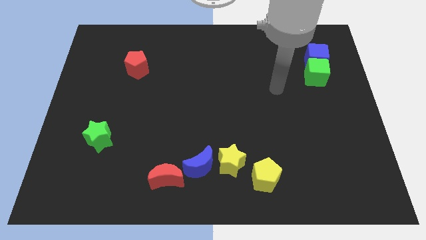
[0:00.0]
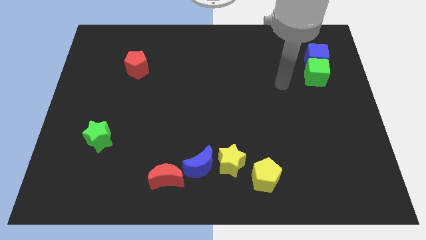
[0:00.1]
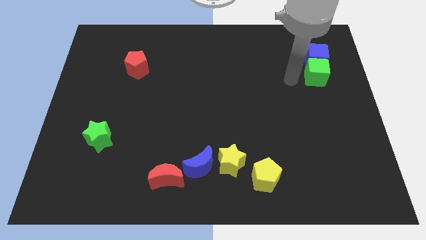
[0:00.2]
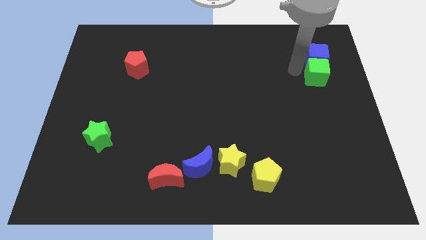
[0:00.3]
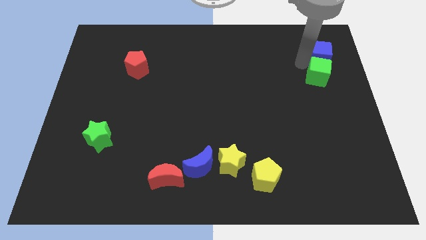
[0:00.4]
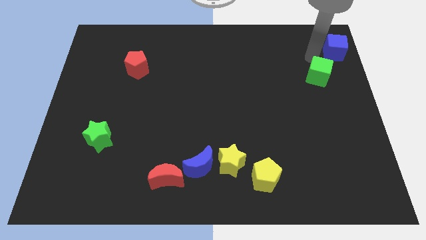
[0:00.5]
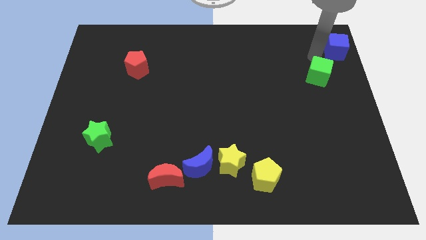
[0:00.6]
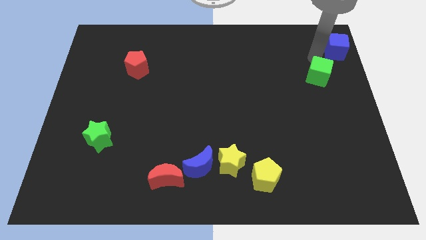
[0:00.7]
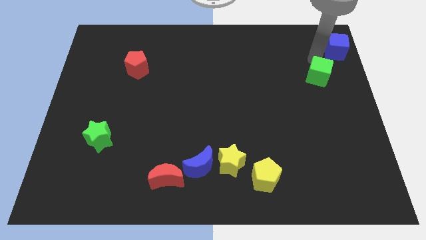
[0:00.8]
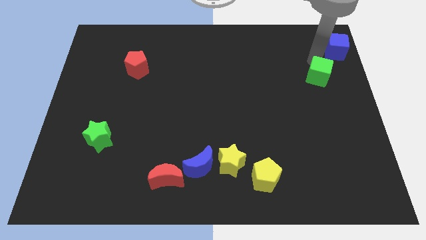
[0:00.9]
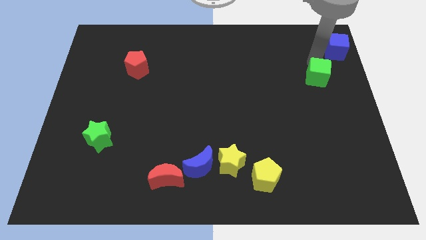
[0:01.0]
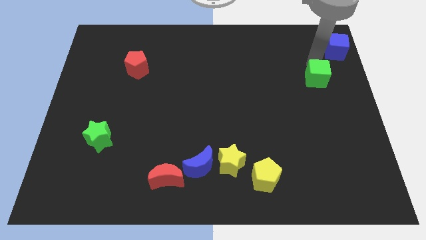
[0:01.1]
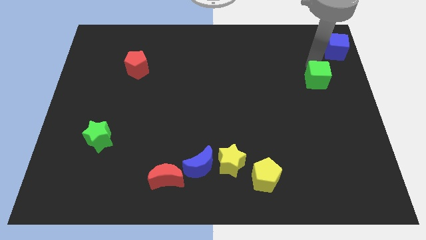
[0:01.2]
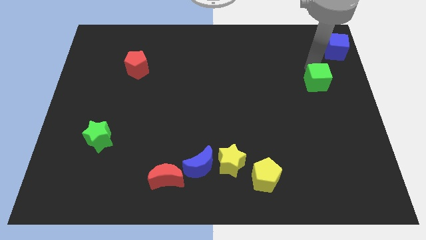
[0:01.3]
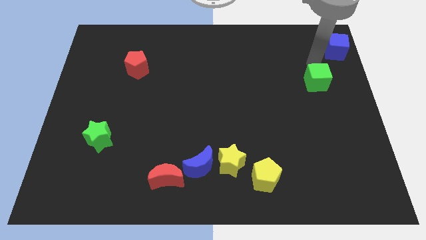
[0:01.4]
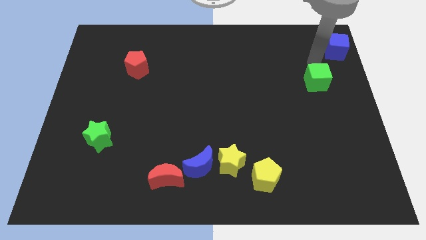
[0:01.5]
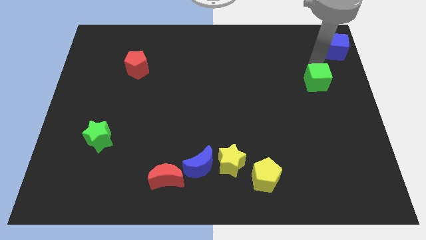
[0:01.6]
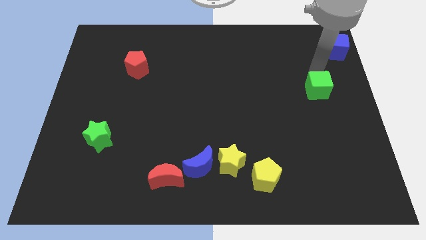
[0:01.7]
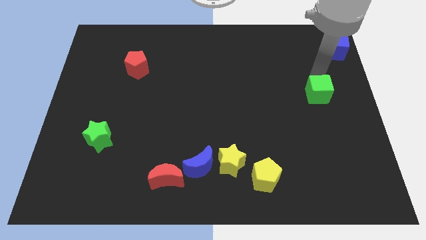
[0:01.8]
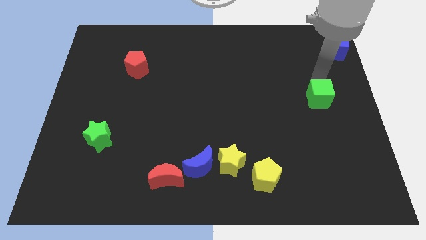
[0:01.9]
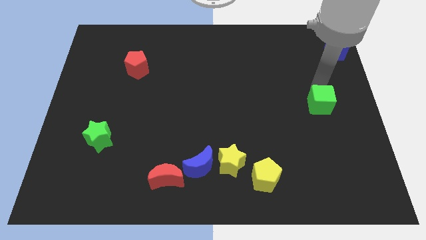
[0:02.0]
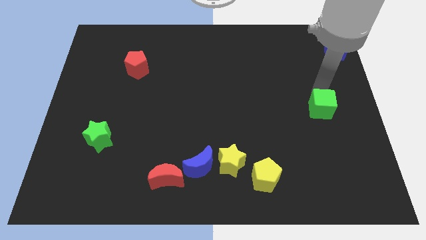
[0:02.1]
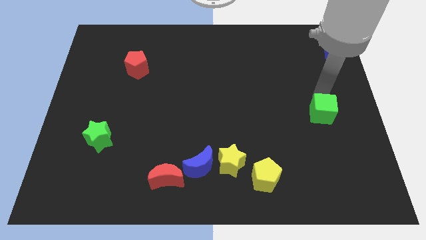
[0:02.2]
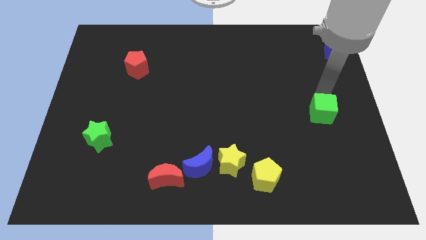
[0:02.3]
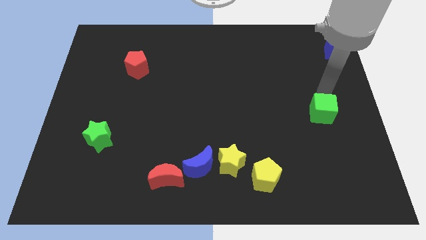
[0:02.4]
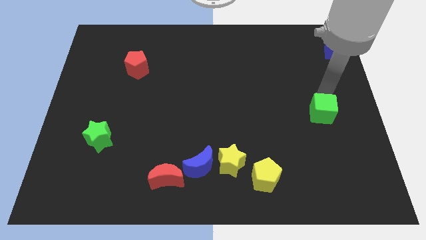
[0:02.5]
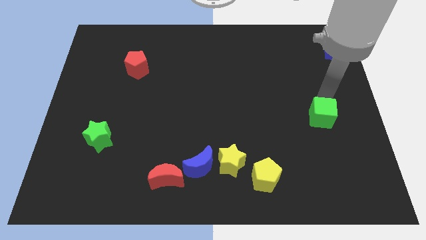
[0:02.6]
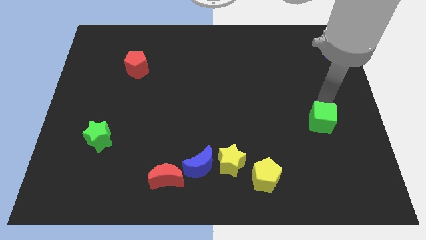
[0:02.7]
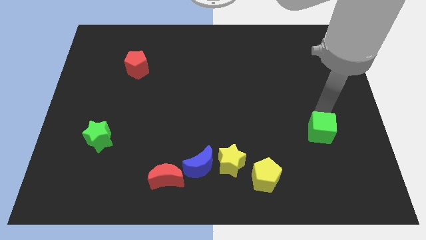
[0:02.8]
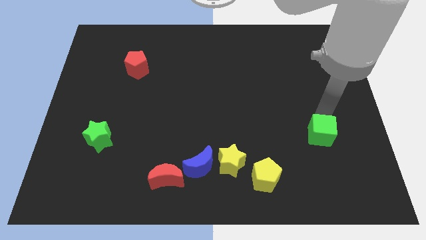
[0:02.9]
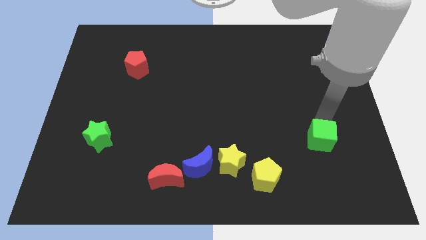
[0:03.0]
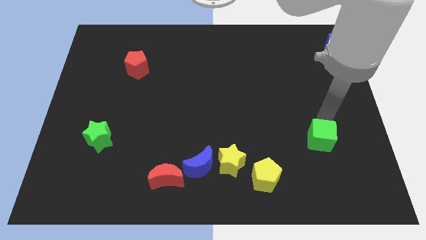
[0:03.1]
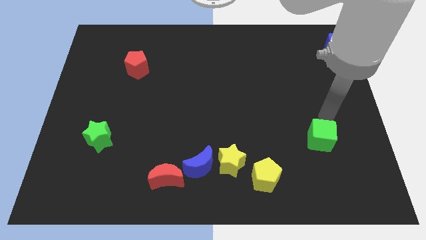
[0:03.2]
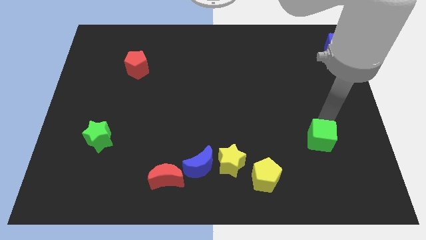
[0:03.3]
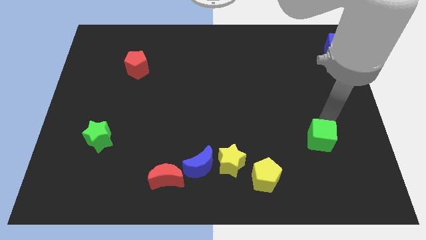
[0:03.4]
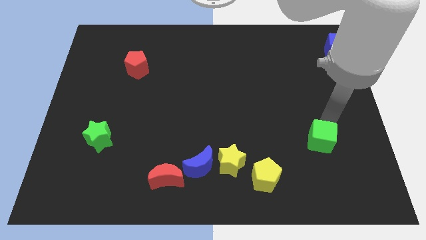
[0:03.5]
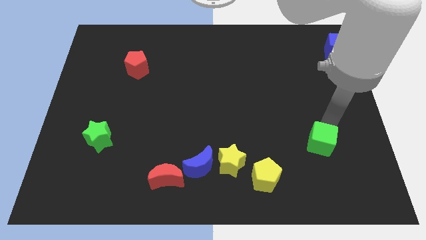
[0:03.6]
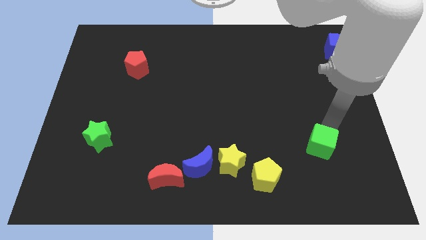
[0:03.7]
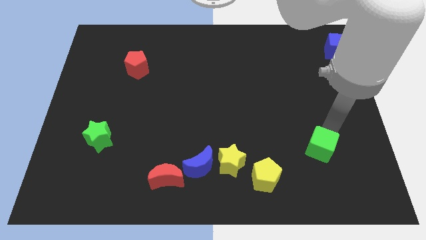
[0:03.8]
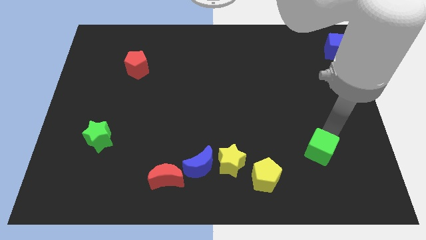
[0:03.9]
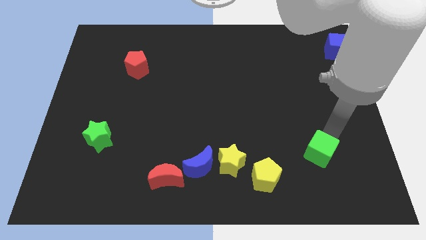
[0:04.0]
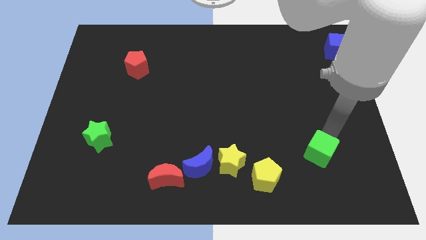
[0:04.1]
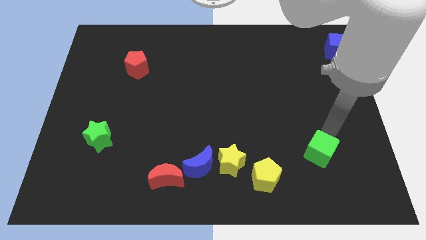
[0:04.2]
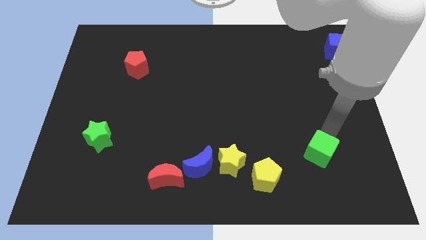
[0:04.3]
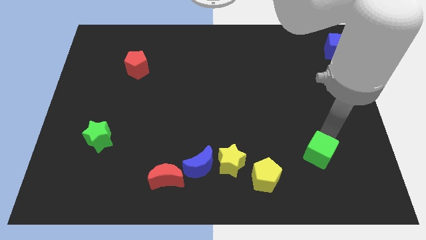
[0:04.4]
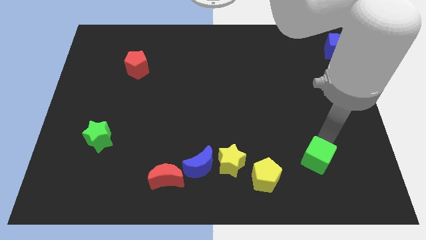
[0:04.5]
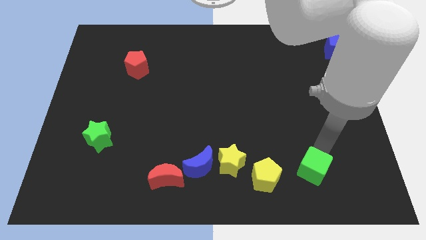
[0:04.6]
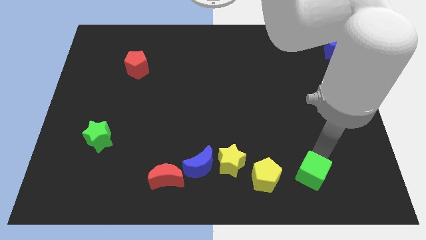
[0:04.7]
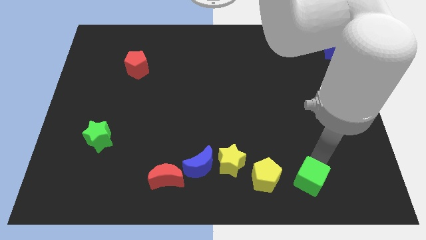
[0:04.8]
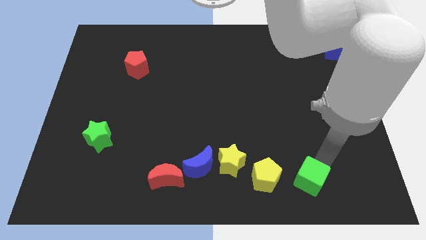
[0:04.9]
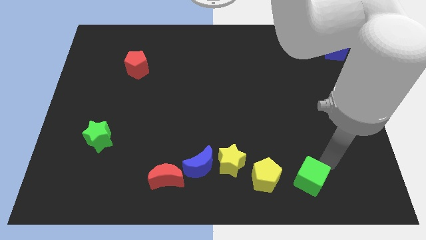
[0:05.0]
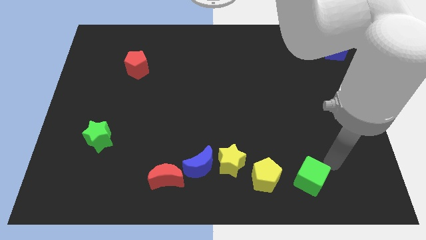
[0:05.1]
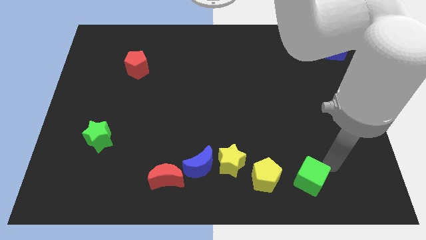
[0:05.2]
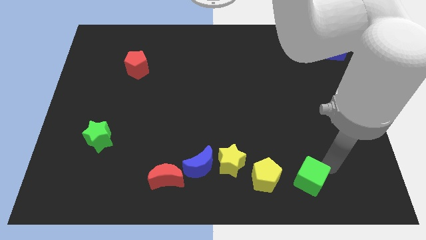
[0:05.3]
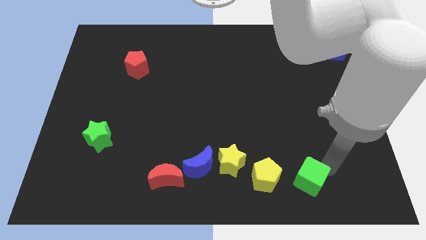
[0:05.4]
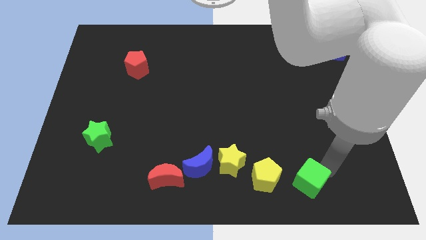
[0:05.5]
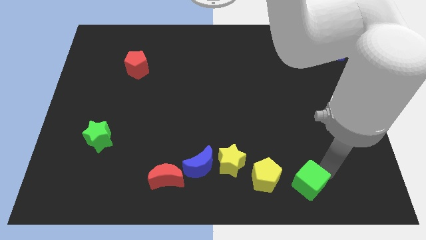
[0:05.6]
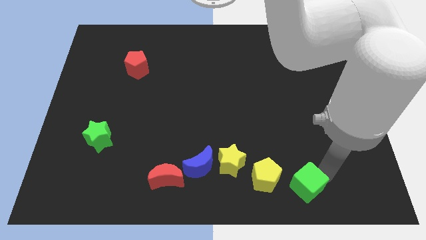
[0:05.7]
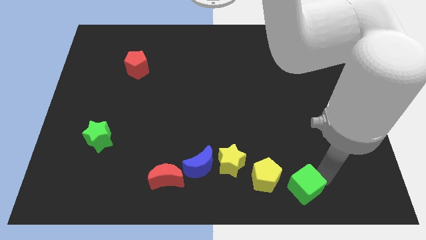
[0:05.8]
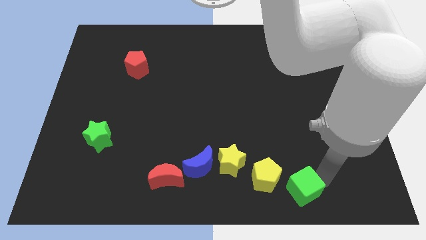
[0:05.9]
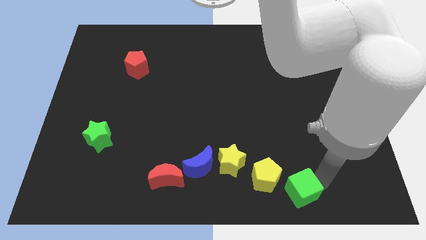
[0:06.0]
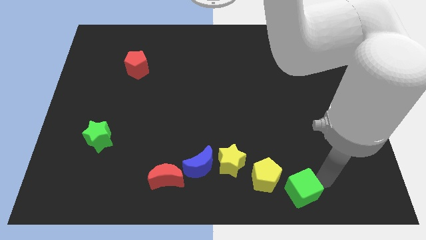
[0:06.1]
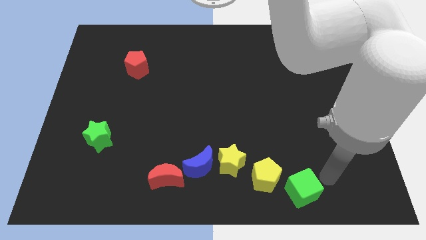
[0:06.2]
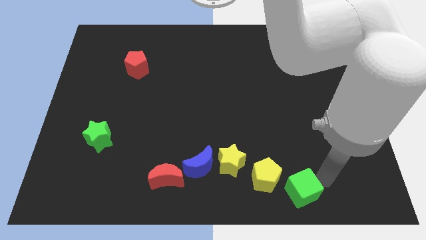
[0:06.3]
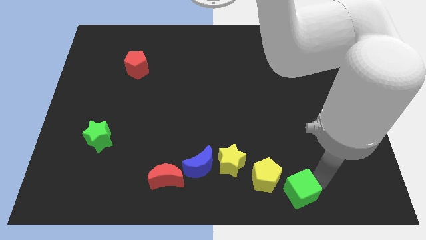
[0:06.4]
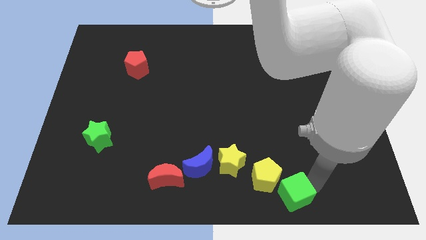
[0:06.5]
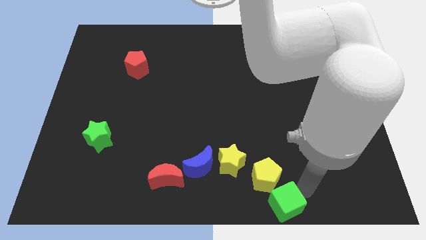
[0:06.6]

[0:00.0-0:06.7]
push the green cube to the bottom

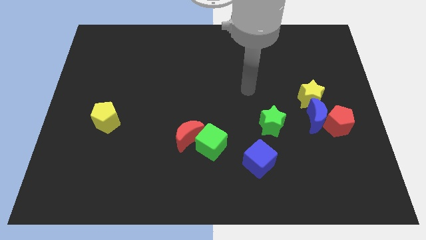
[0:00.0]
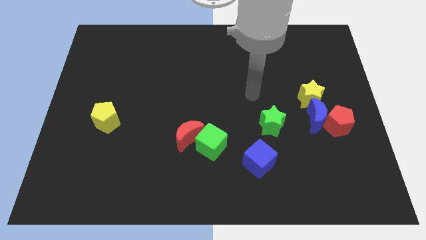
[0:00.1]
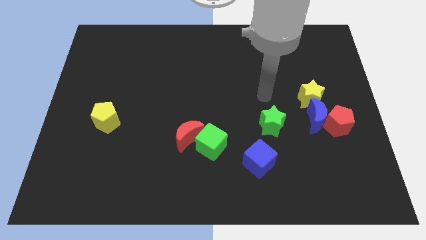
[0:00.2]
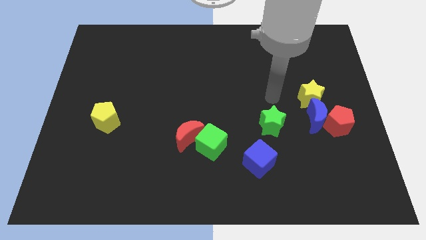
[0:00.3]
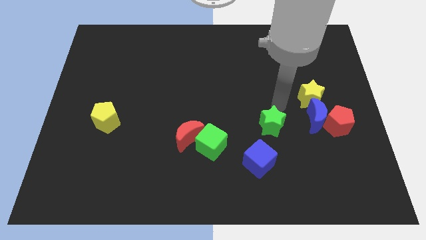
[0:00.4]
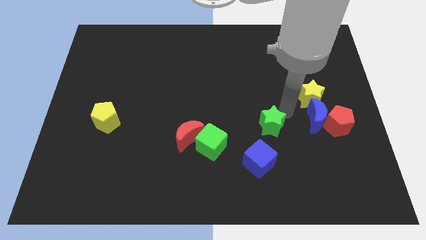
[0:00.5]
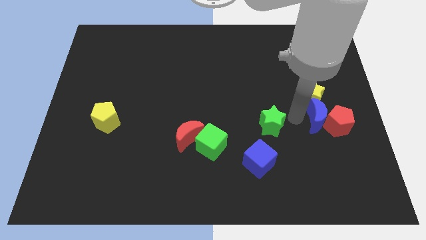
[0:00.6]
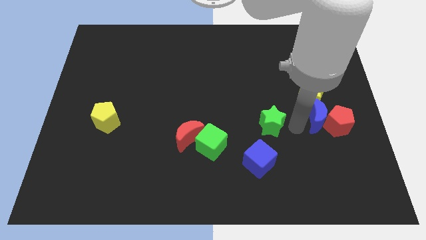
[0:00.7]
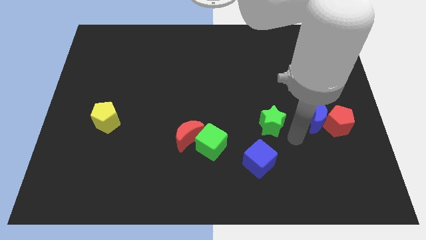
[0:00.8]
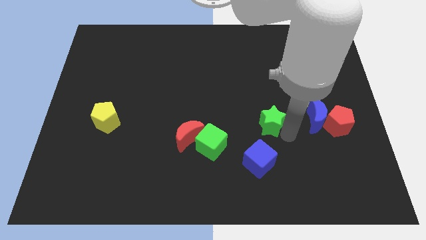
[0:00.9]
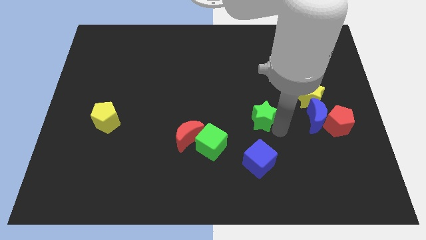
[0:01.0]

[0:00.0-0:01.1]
move the green star to the center of the board
